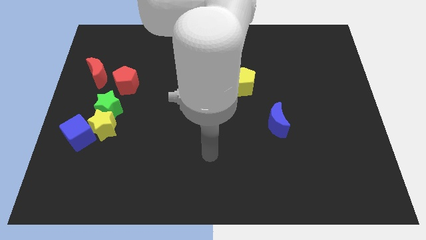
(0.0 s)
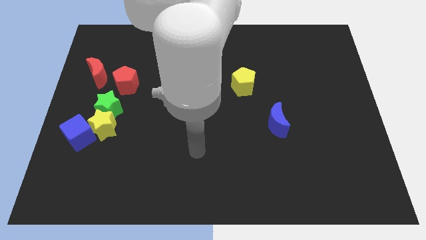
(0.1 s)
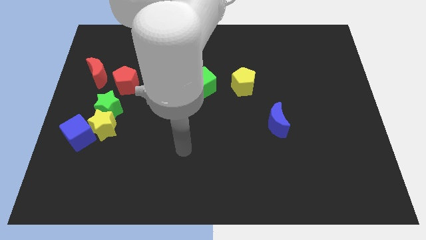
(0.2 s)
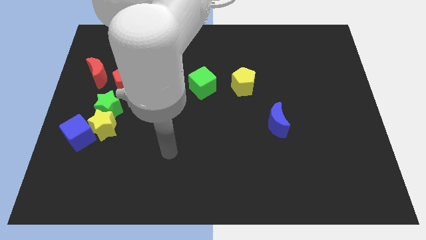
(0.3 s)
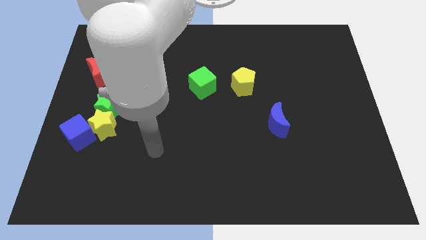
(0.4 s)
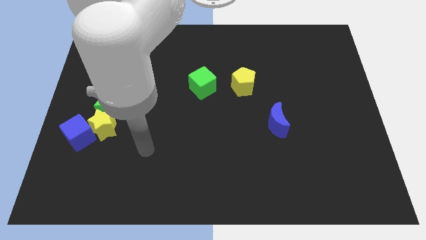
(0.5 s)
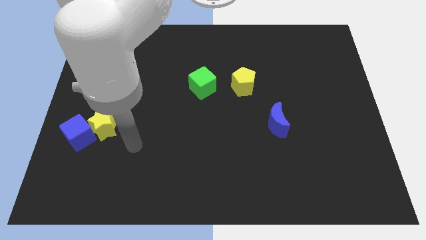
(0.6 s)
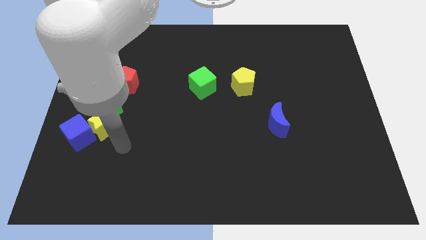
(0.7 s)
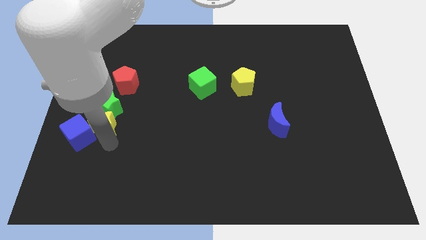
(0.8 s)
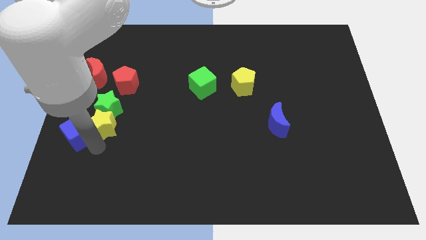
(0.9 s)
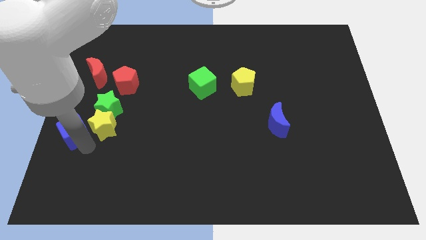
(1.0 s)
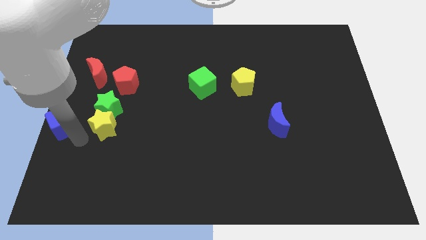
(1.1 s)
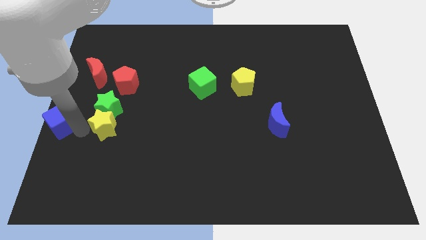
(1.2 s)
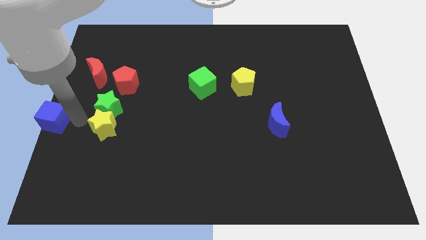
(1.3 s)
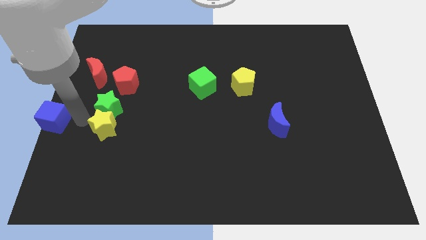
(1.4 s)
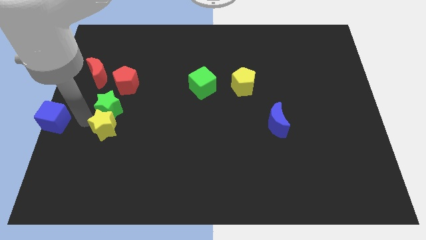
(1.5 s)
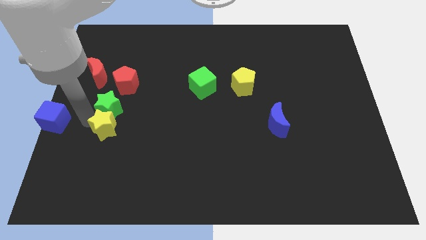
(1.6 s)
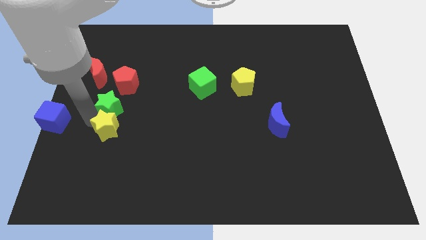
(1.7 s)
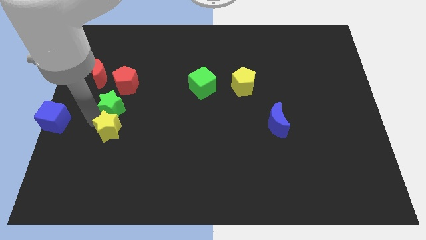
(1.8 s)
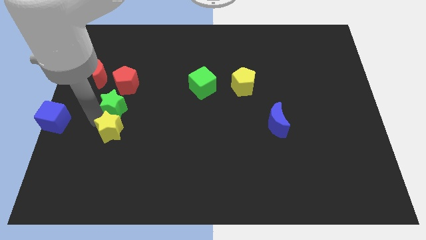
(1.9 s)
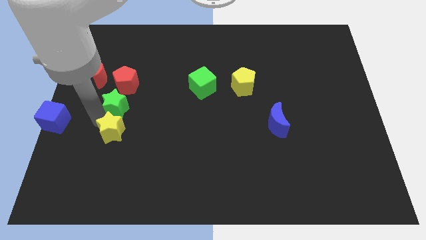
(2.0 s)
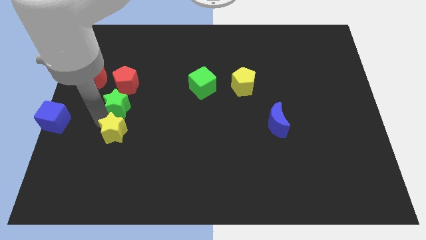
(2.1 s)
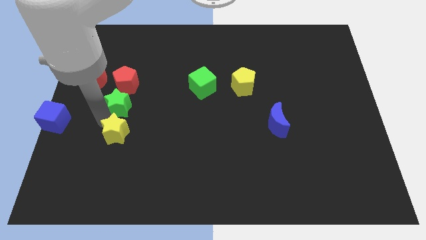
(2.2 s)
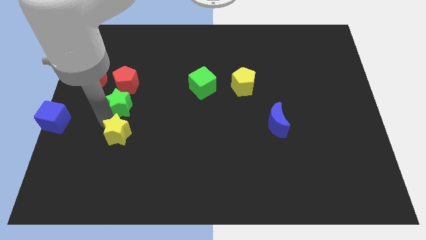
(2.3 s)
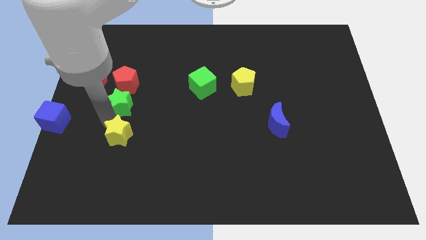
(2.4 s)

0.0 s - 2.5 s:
pull the yellow star apart from the blue cube and green star

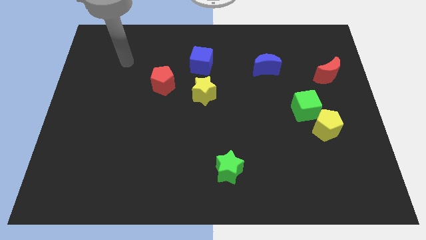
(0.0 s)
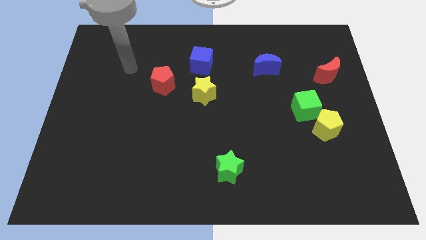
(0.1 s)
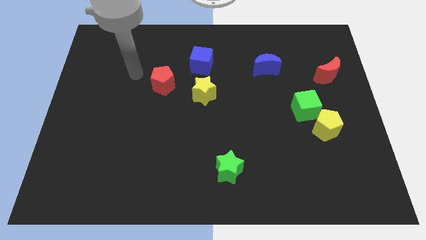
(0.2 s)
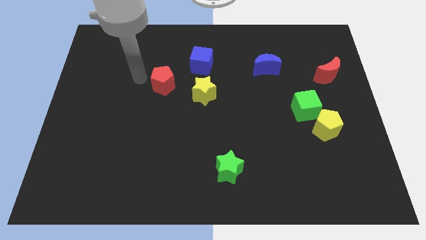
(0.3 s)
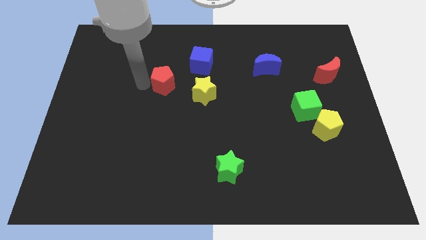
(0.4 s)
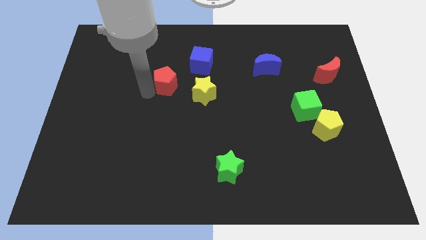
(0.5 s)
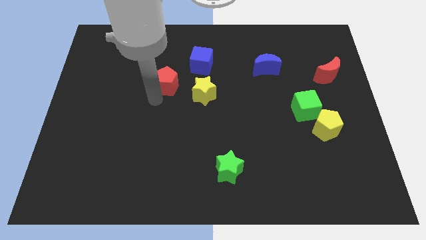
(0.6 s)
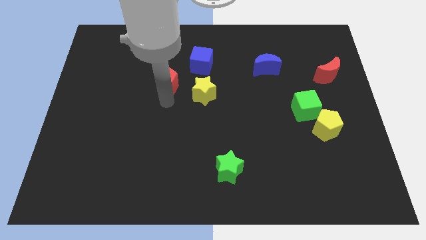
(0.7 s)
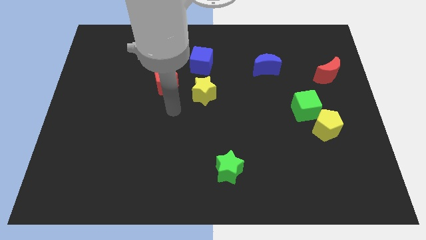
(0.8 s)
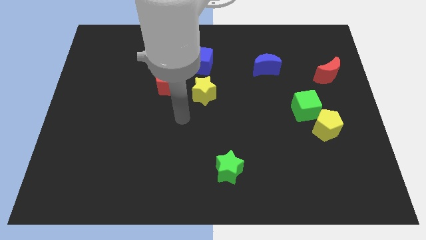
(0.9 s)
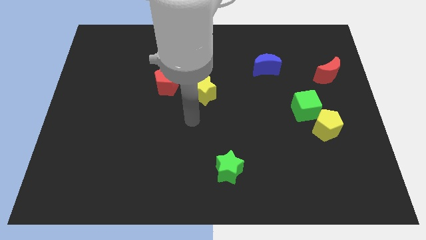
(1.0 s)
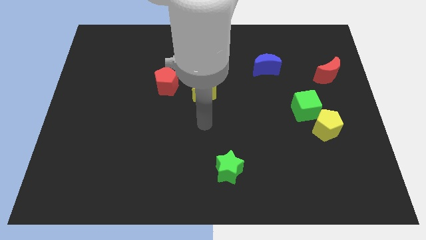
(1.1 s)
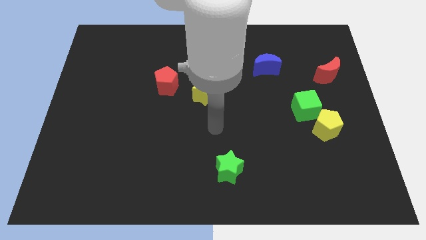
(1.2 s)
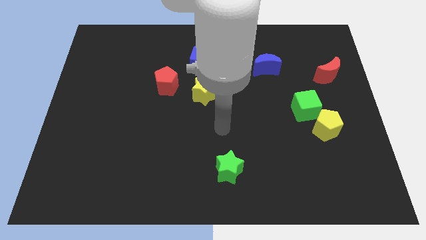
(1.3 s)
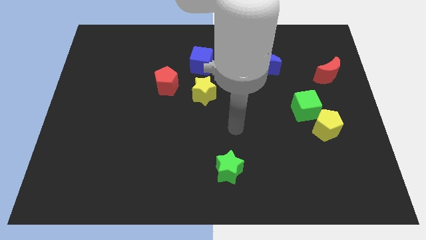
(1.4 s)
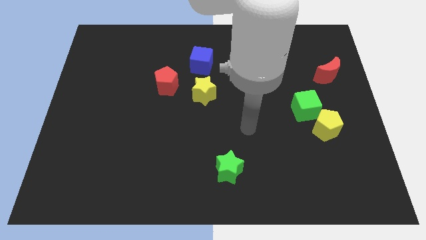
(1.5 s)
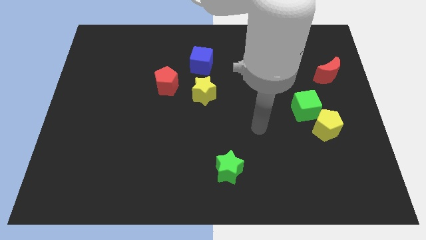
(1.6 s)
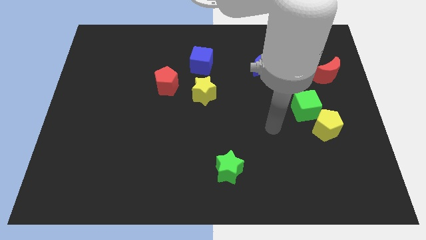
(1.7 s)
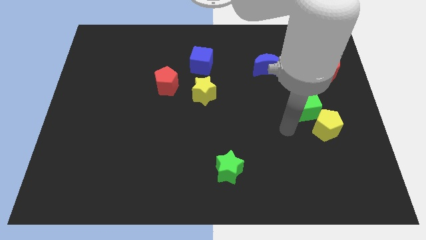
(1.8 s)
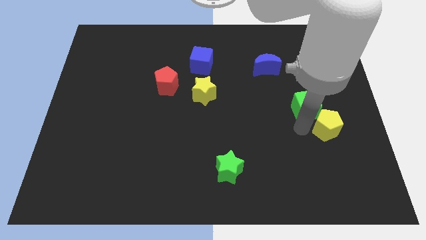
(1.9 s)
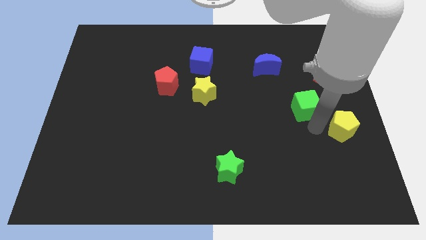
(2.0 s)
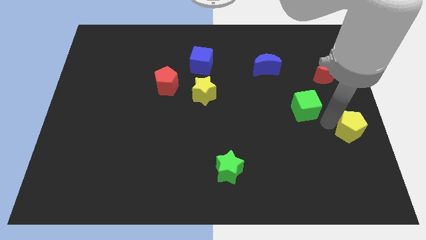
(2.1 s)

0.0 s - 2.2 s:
move the green cube away from the yellow pentagon

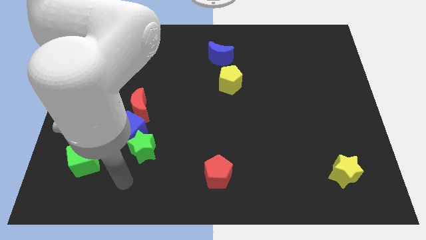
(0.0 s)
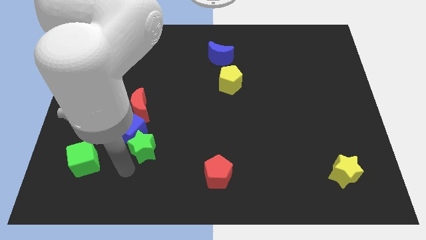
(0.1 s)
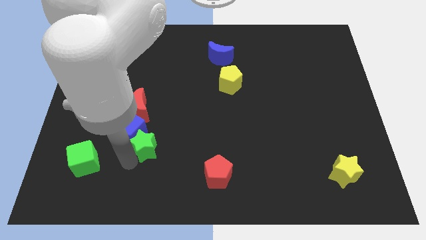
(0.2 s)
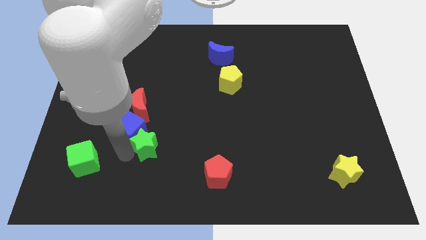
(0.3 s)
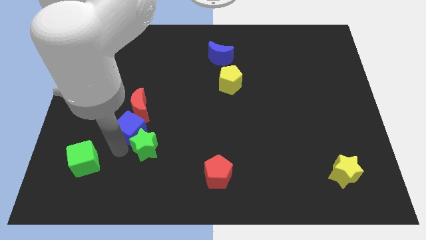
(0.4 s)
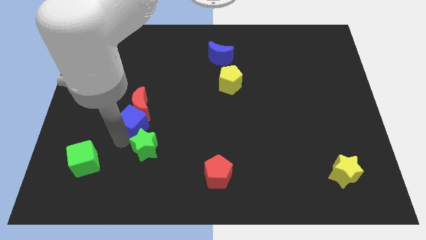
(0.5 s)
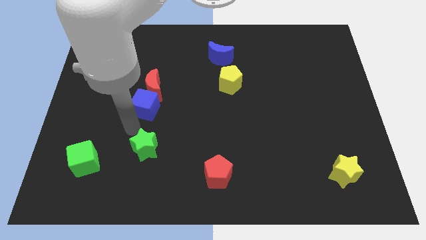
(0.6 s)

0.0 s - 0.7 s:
move the green star away from the blue cube

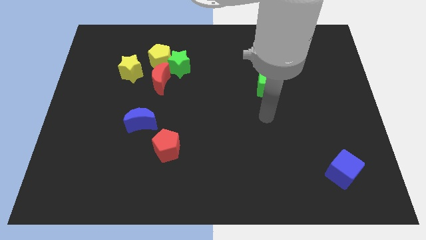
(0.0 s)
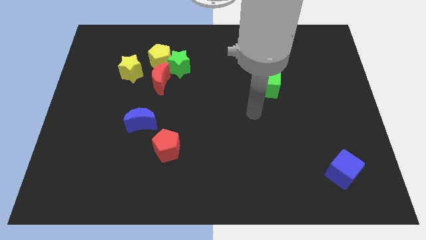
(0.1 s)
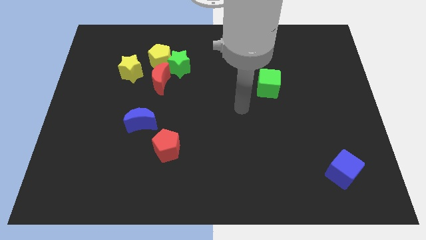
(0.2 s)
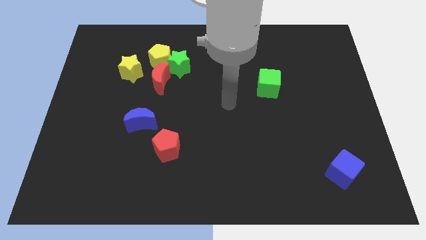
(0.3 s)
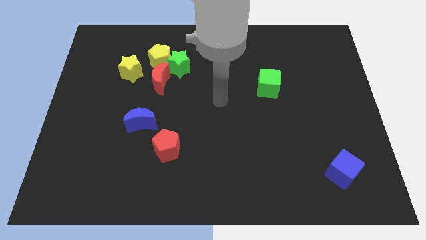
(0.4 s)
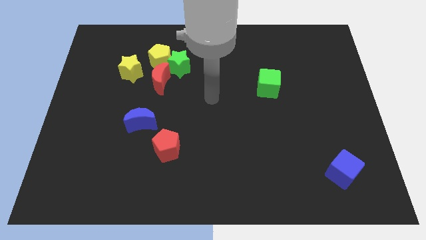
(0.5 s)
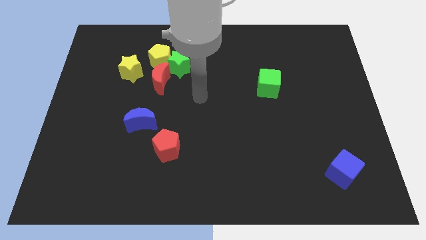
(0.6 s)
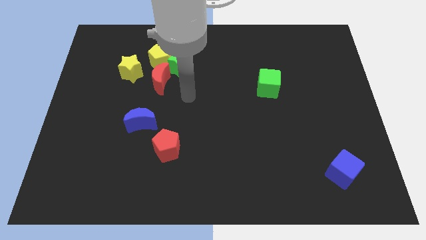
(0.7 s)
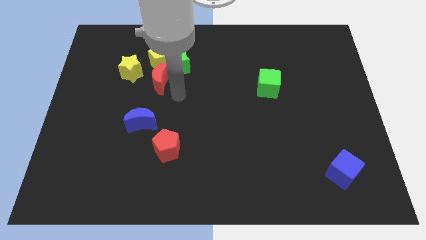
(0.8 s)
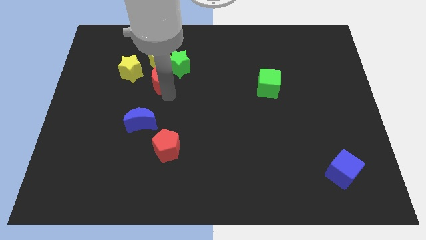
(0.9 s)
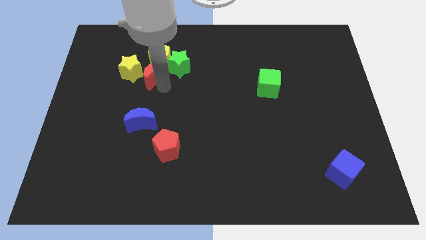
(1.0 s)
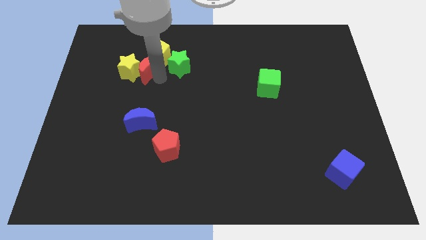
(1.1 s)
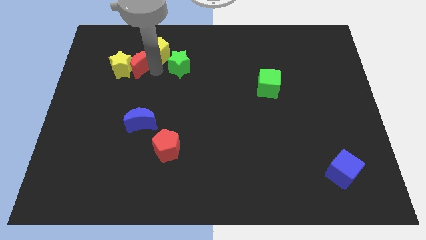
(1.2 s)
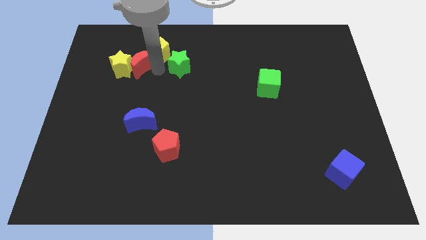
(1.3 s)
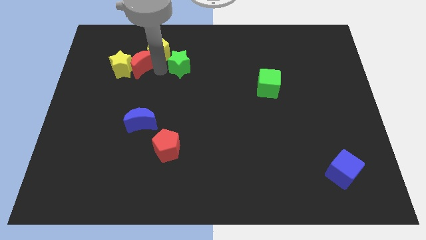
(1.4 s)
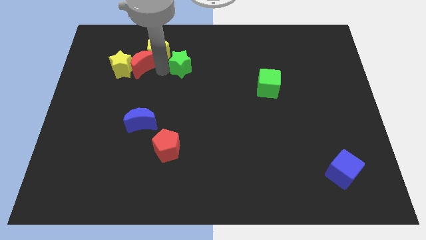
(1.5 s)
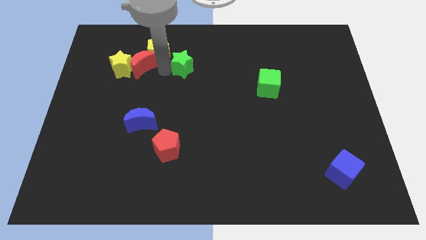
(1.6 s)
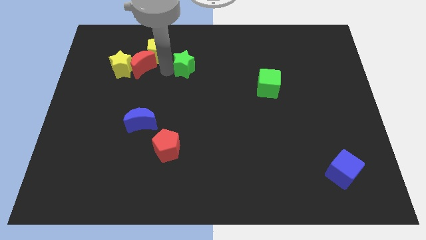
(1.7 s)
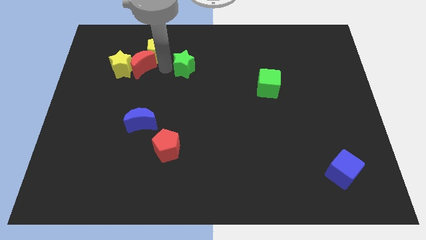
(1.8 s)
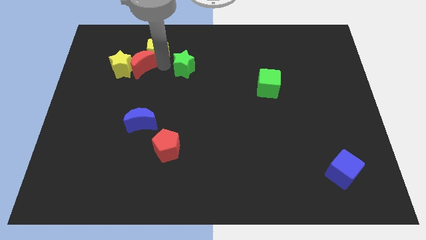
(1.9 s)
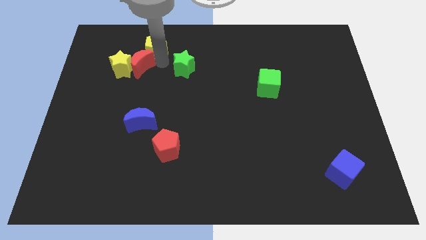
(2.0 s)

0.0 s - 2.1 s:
pull the green star apart from the yellow pentagon and red moon

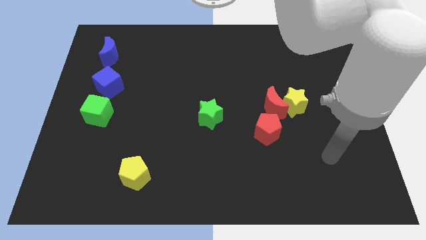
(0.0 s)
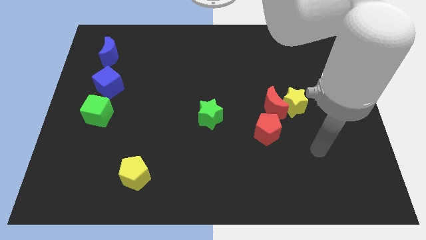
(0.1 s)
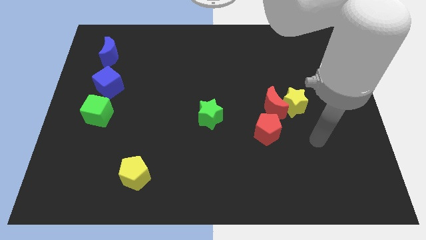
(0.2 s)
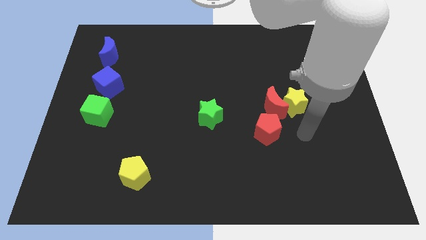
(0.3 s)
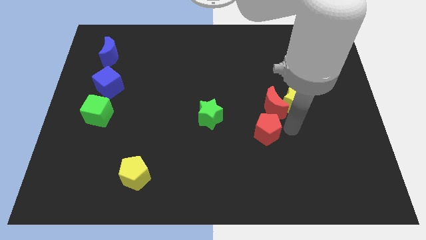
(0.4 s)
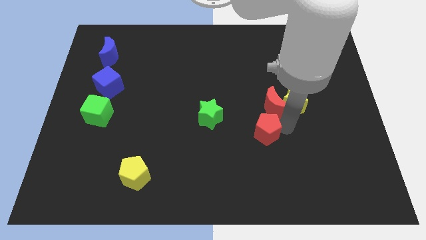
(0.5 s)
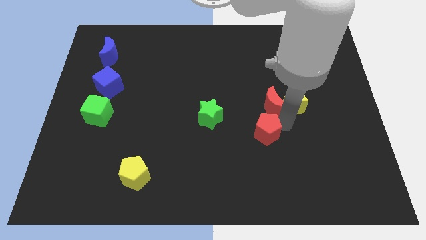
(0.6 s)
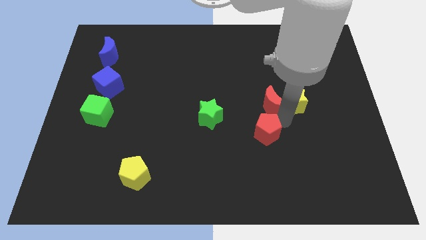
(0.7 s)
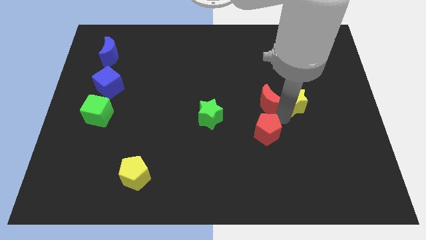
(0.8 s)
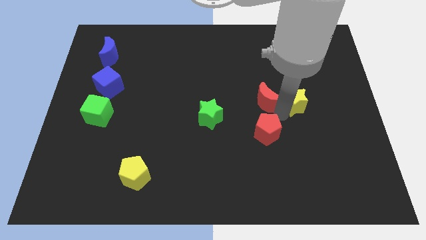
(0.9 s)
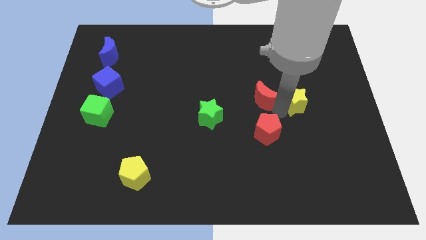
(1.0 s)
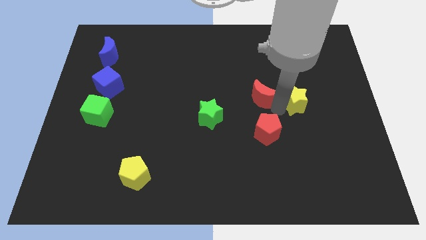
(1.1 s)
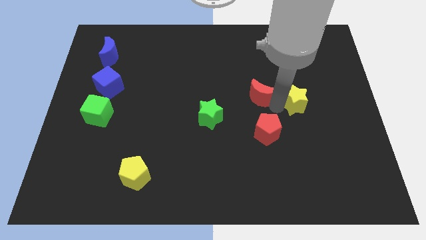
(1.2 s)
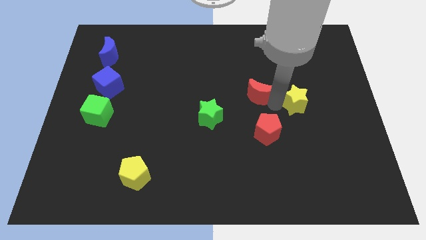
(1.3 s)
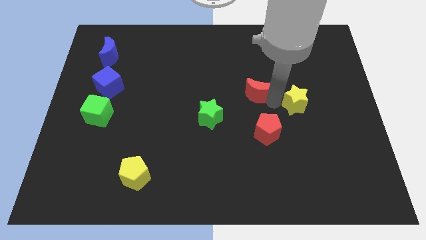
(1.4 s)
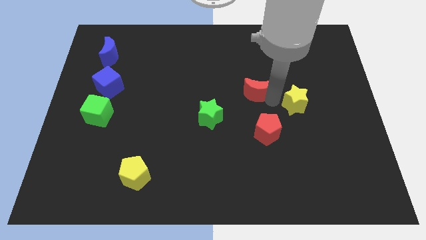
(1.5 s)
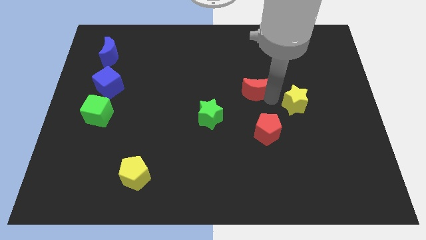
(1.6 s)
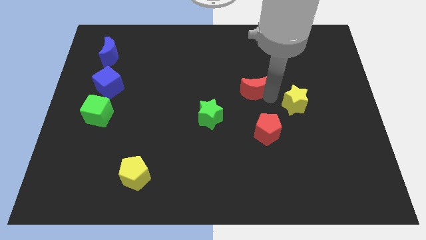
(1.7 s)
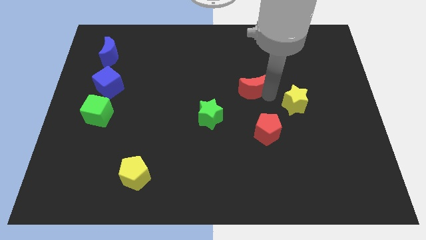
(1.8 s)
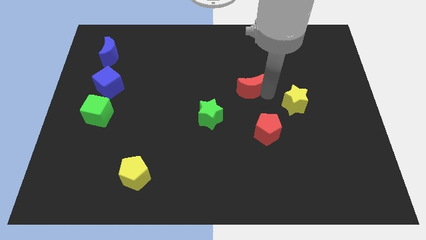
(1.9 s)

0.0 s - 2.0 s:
separate the red moon from the yellow star and red pentagon
